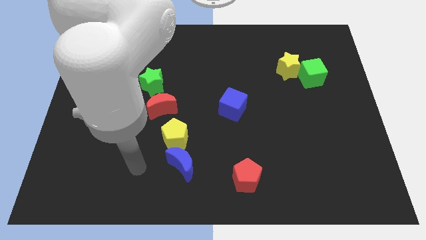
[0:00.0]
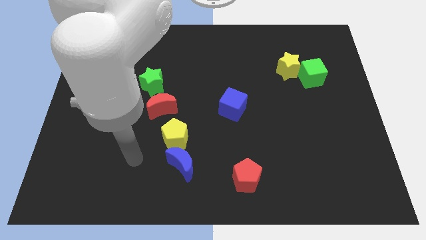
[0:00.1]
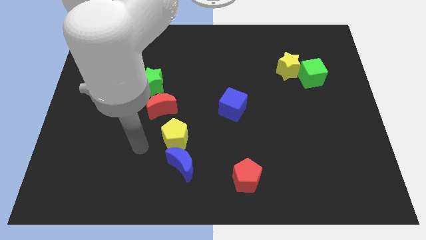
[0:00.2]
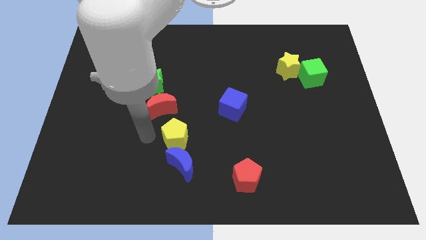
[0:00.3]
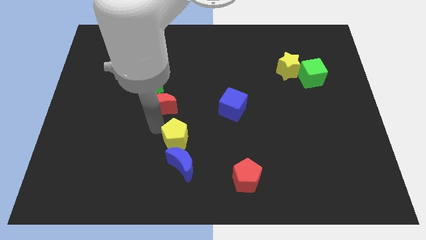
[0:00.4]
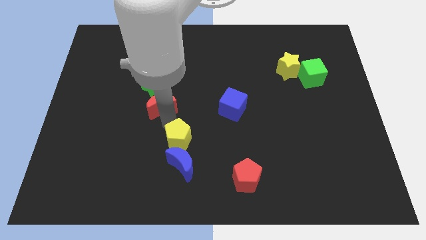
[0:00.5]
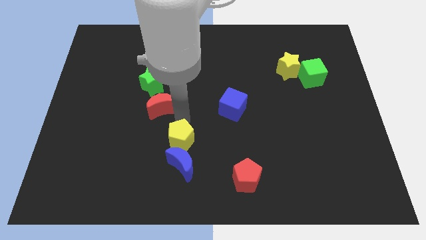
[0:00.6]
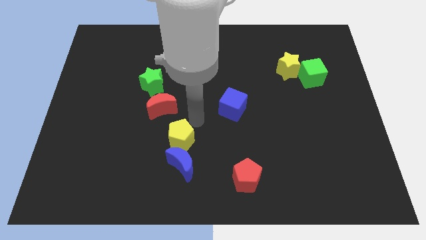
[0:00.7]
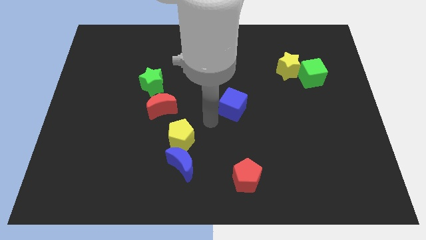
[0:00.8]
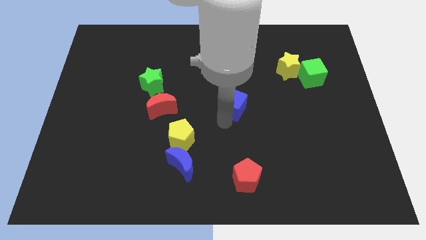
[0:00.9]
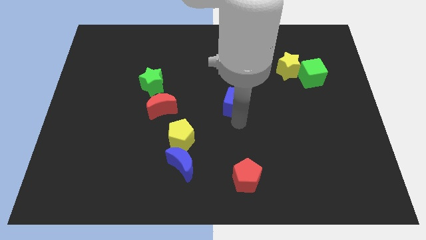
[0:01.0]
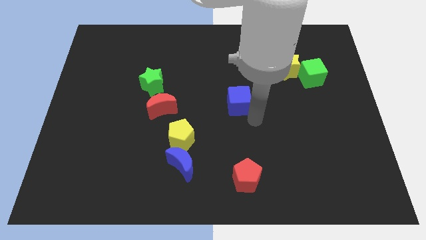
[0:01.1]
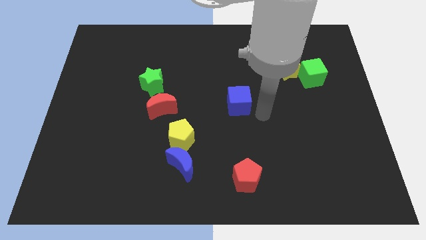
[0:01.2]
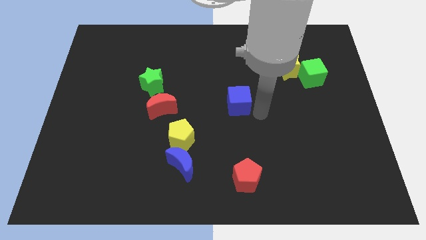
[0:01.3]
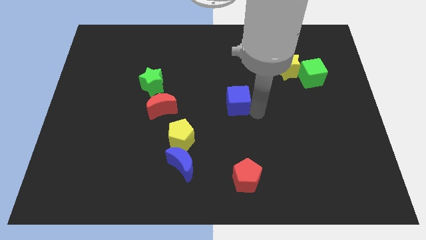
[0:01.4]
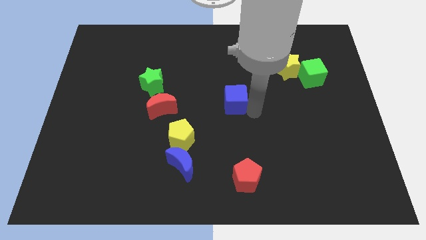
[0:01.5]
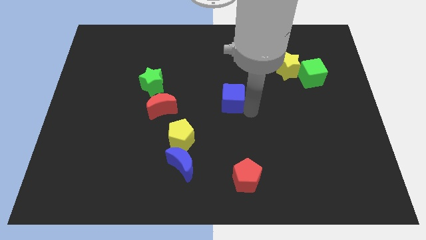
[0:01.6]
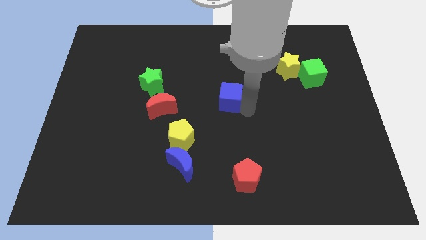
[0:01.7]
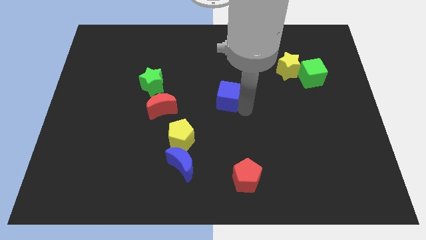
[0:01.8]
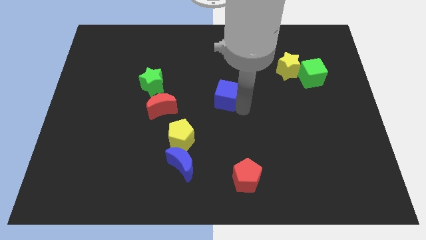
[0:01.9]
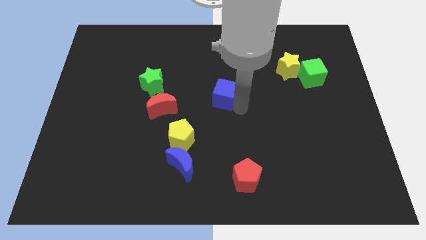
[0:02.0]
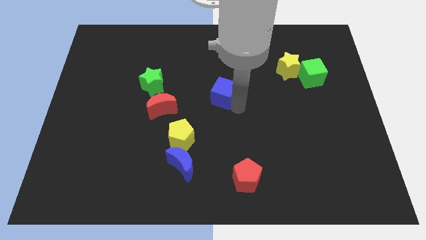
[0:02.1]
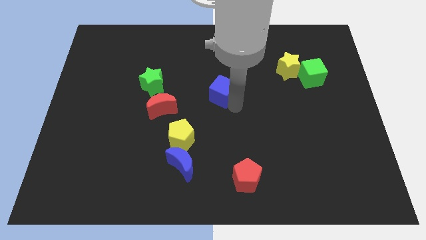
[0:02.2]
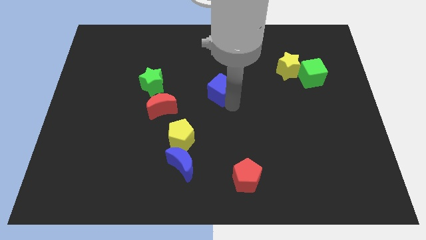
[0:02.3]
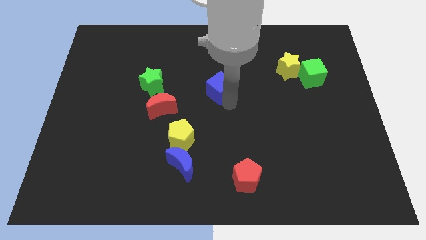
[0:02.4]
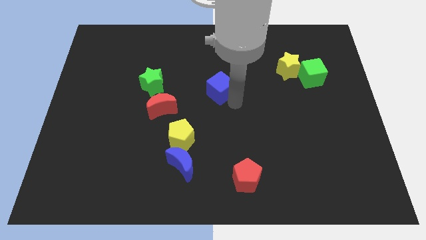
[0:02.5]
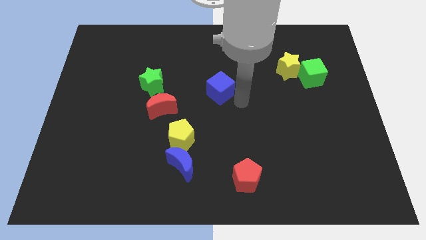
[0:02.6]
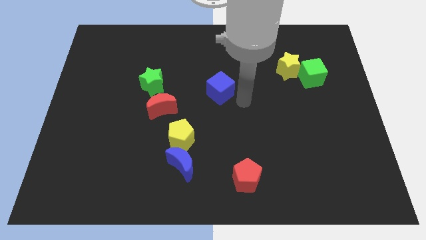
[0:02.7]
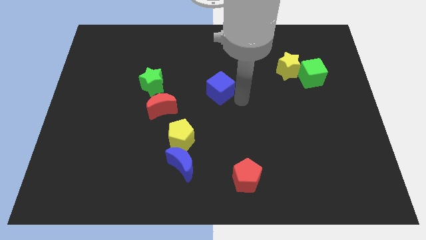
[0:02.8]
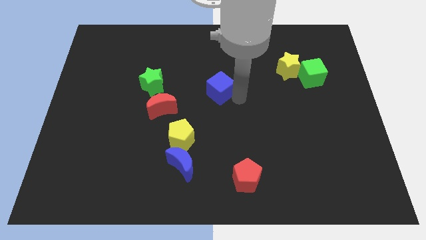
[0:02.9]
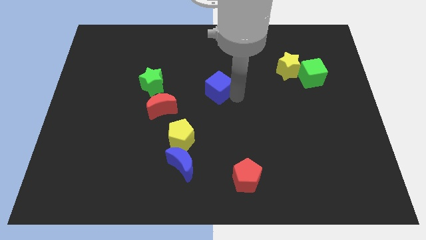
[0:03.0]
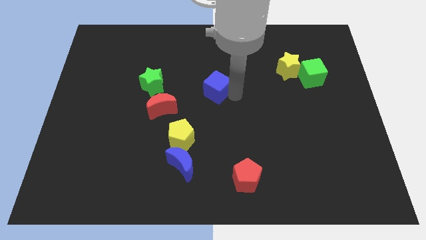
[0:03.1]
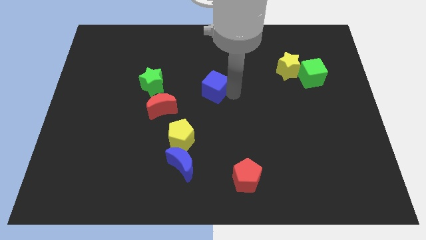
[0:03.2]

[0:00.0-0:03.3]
slightly move the blue cube upwards and to the left

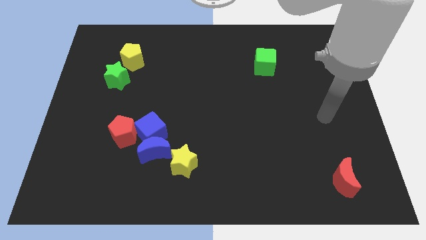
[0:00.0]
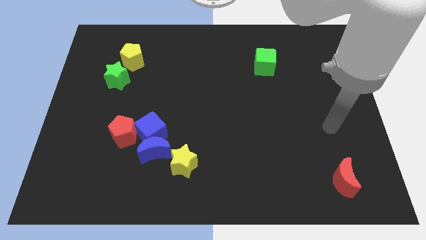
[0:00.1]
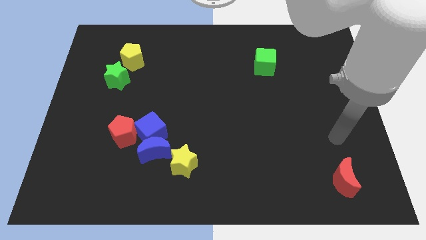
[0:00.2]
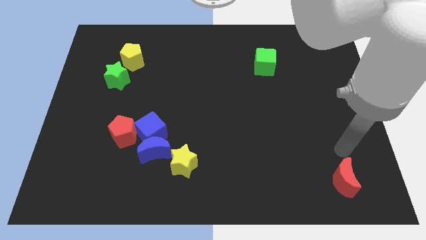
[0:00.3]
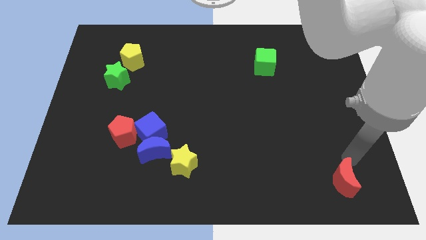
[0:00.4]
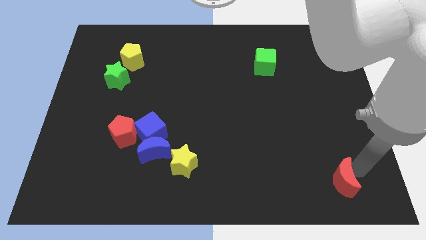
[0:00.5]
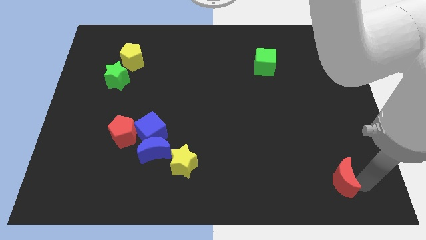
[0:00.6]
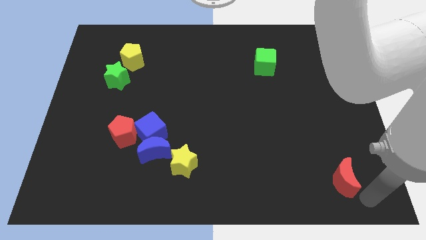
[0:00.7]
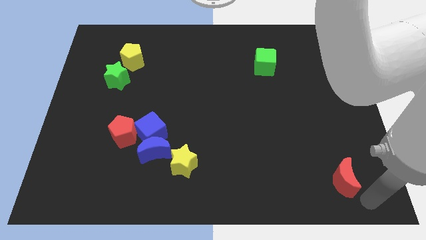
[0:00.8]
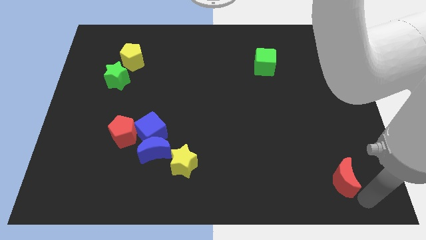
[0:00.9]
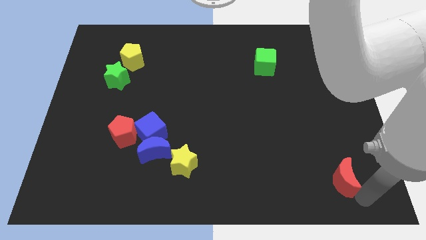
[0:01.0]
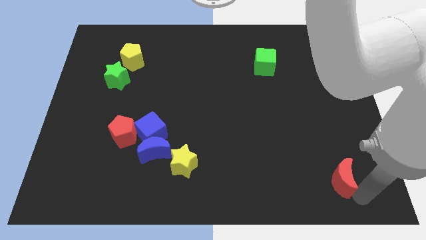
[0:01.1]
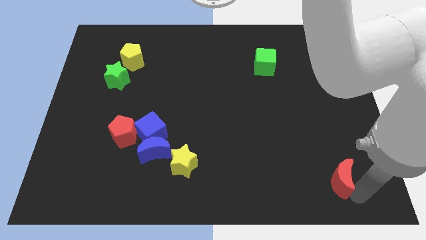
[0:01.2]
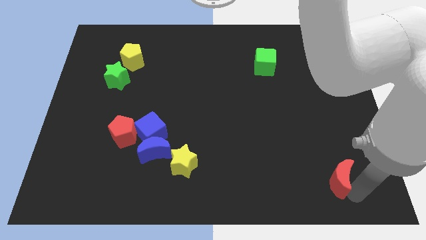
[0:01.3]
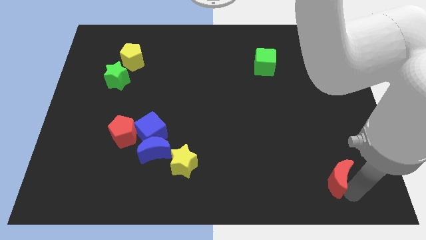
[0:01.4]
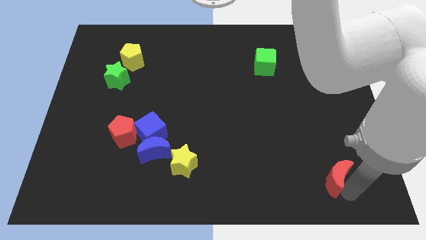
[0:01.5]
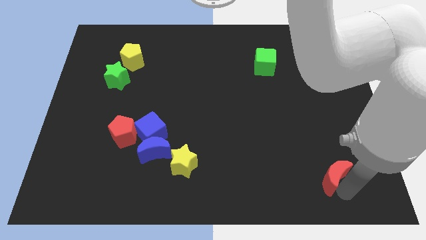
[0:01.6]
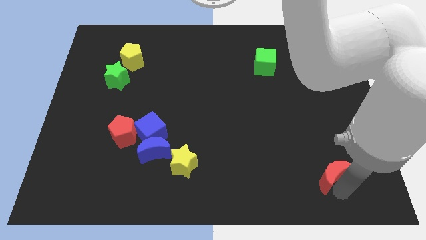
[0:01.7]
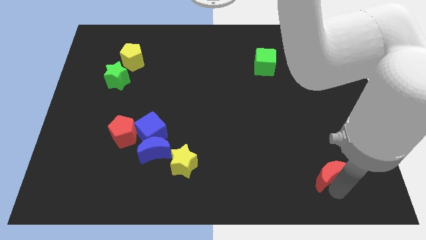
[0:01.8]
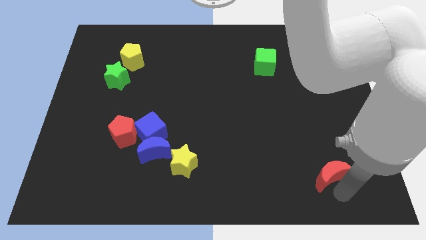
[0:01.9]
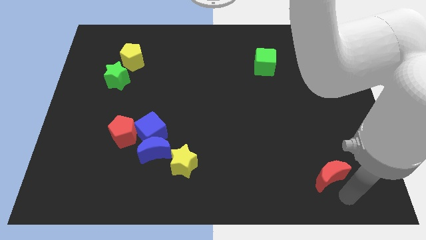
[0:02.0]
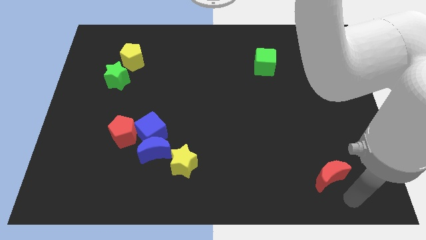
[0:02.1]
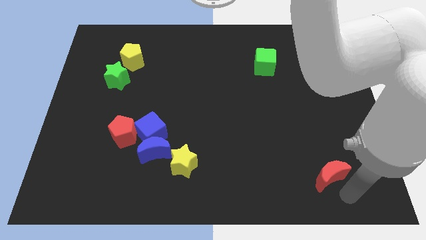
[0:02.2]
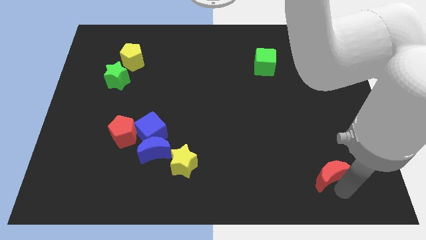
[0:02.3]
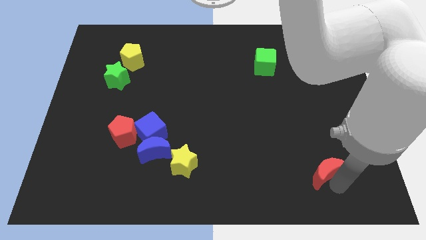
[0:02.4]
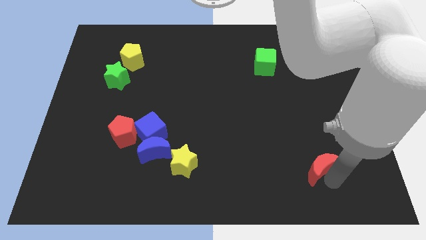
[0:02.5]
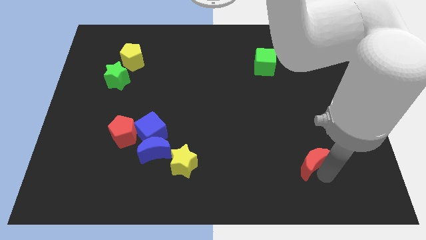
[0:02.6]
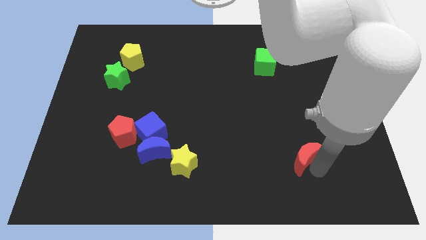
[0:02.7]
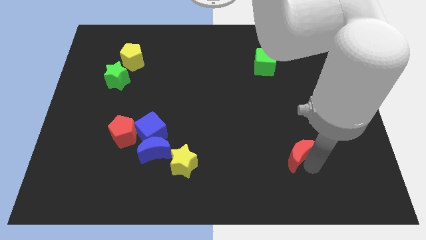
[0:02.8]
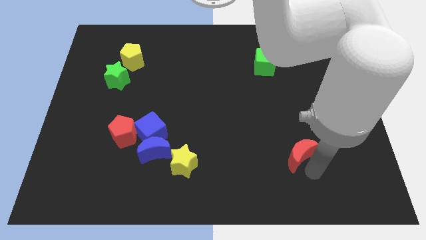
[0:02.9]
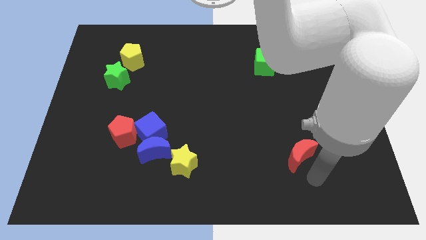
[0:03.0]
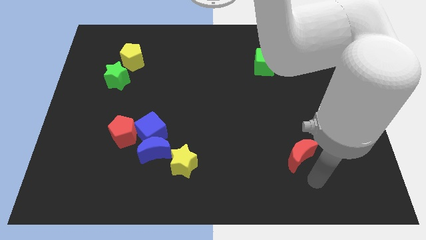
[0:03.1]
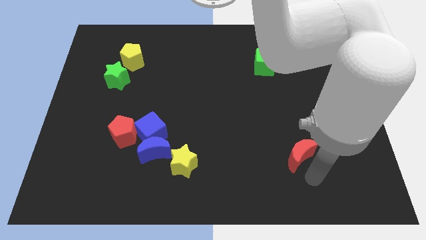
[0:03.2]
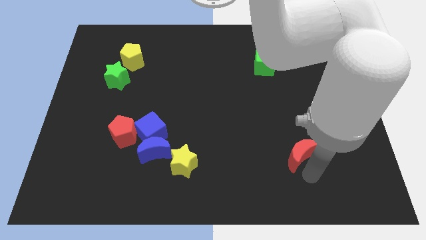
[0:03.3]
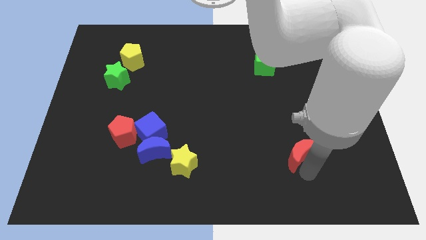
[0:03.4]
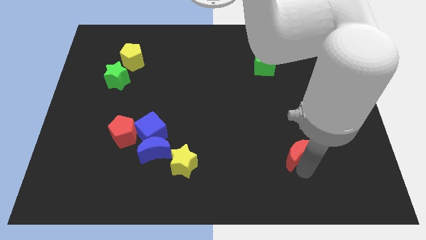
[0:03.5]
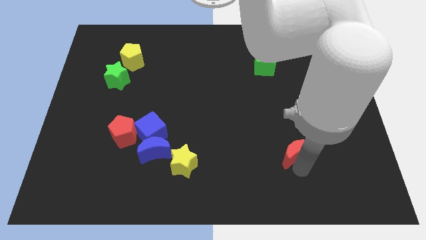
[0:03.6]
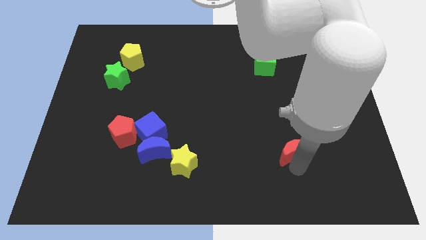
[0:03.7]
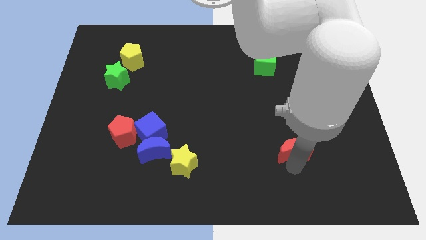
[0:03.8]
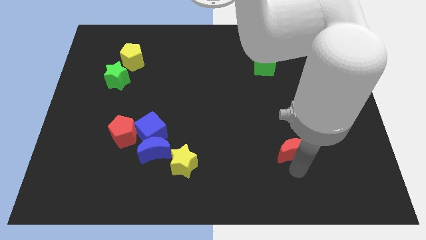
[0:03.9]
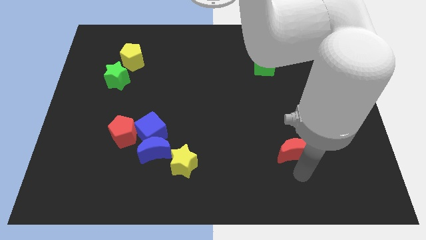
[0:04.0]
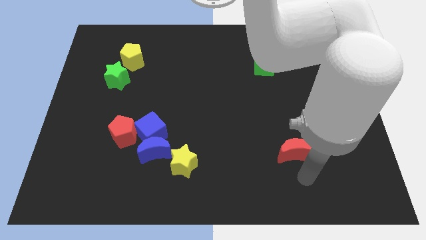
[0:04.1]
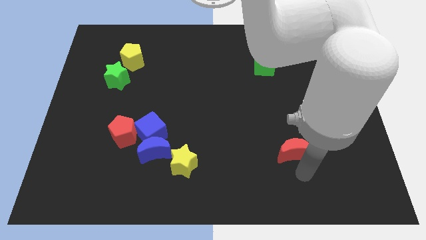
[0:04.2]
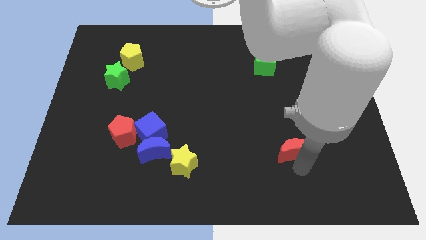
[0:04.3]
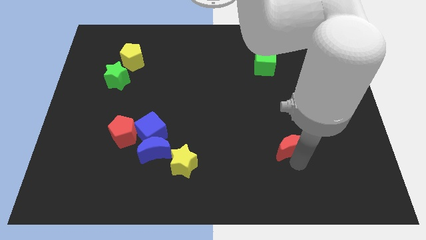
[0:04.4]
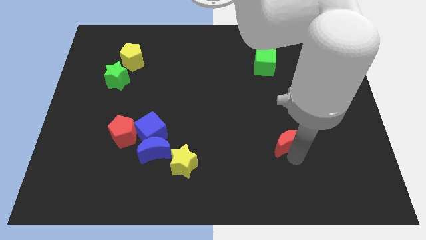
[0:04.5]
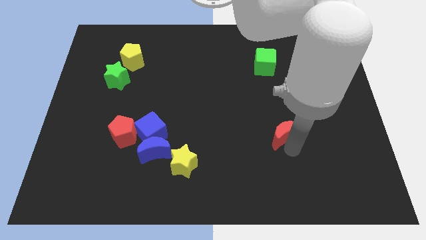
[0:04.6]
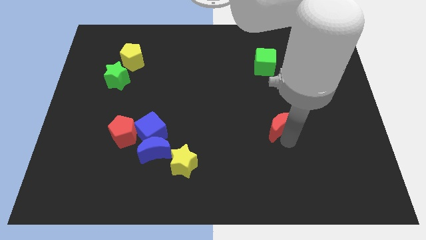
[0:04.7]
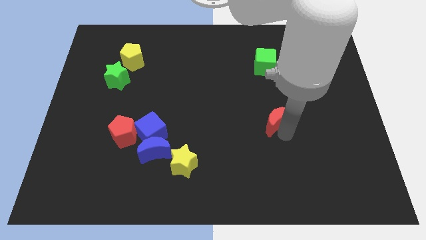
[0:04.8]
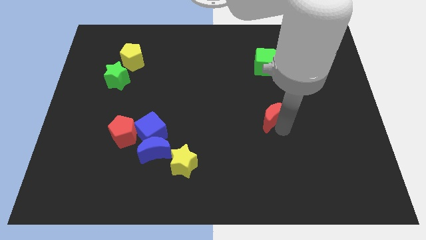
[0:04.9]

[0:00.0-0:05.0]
move the red moon upwards and left
